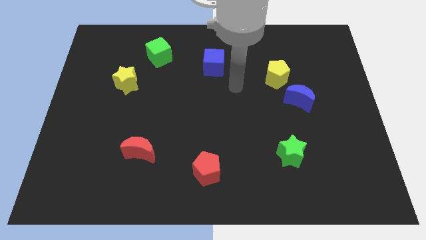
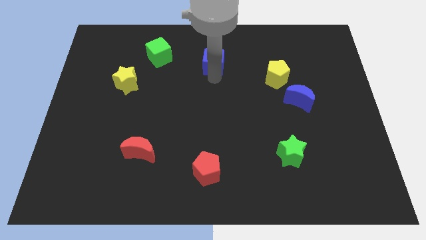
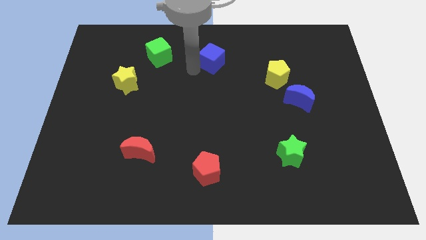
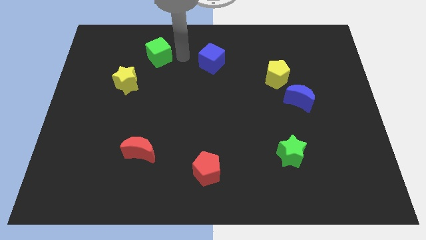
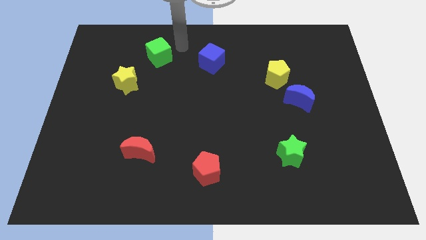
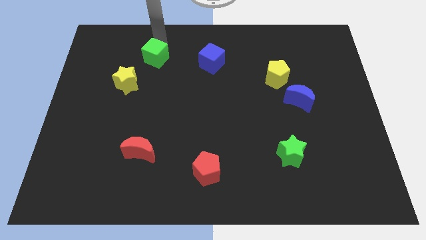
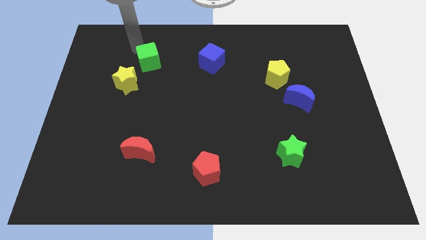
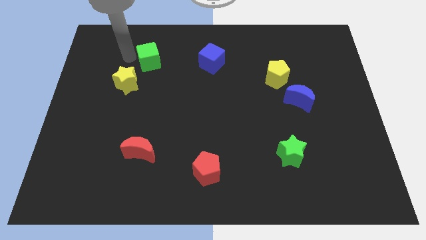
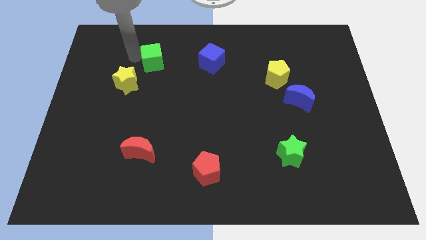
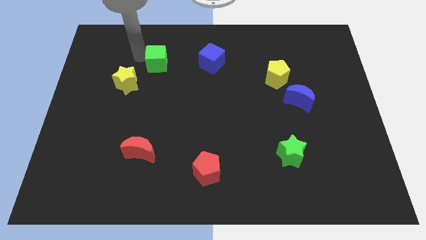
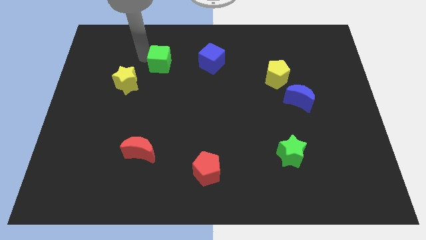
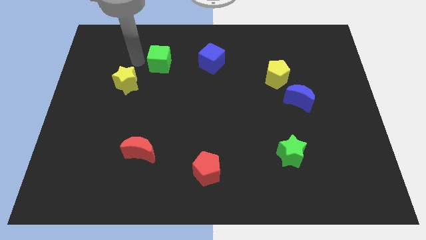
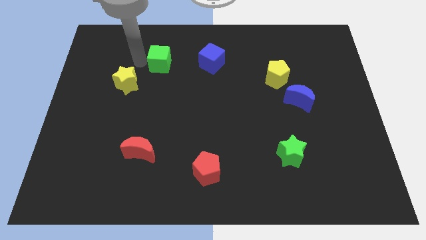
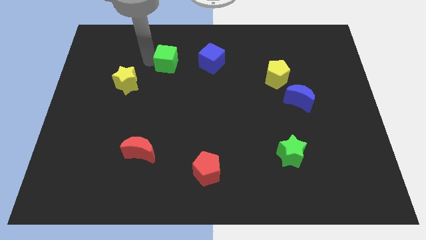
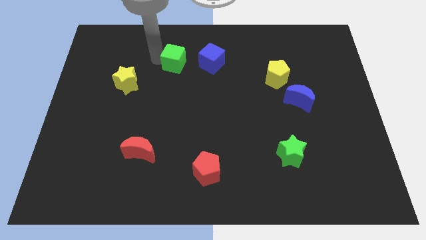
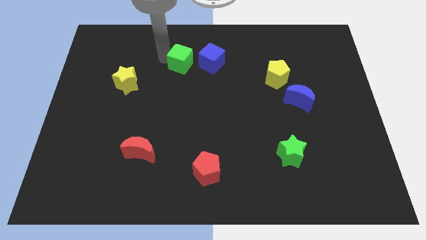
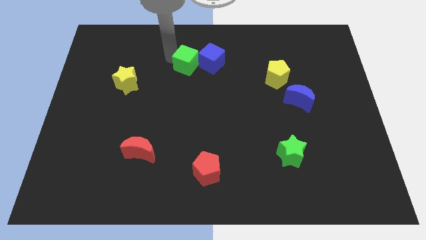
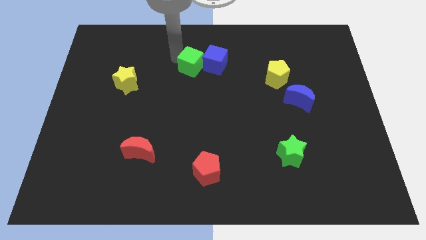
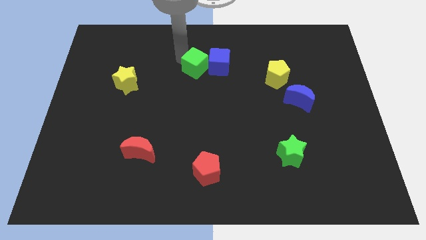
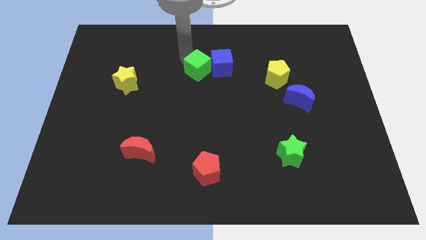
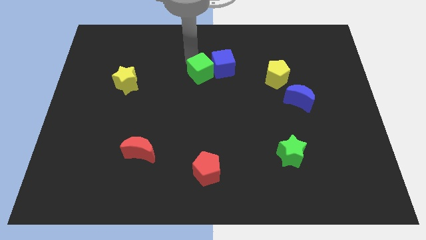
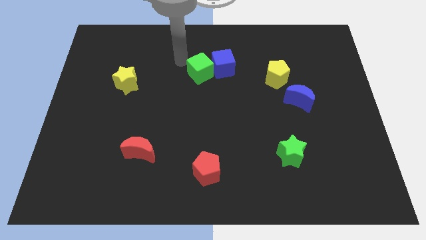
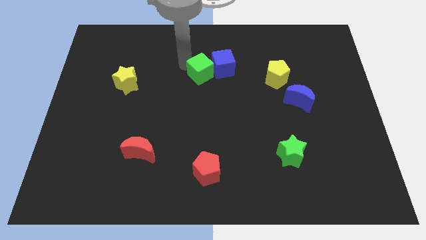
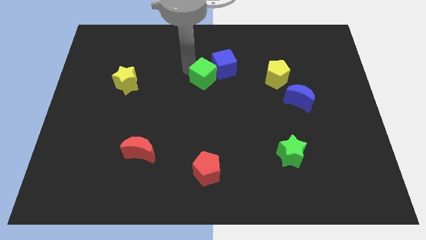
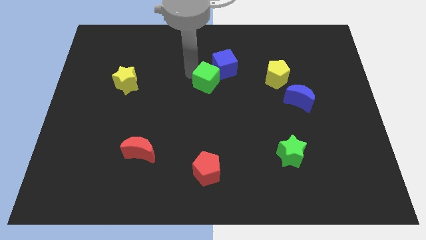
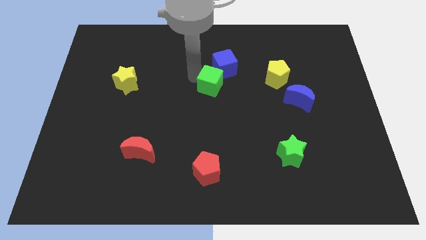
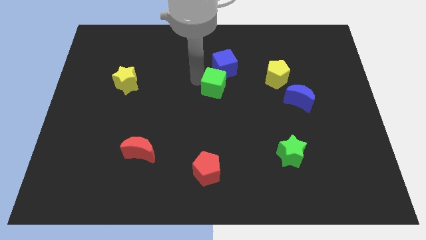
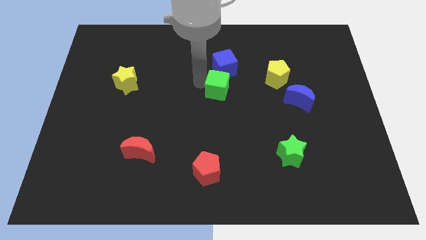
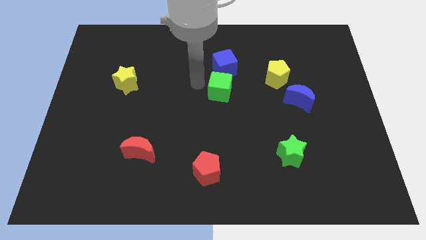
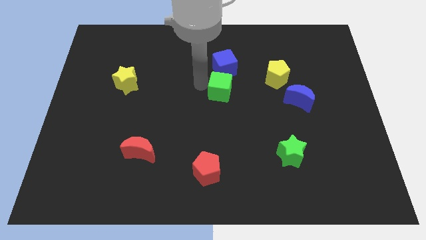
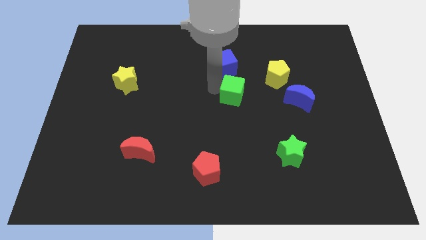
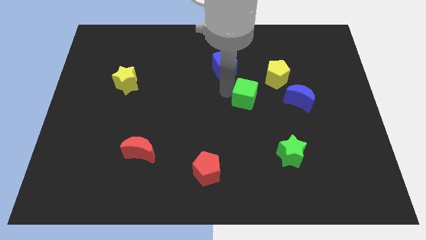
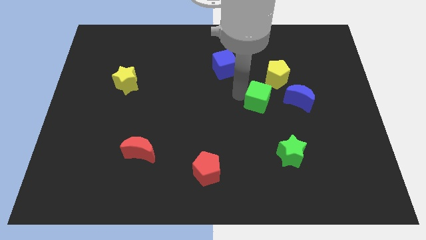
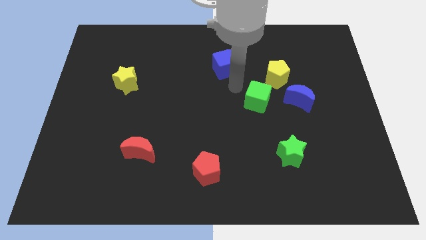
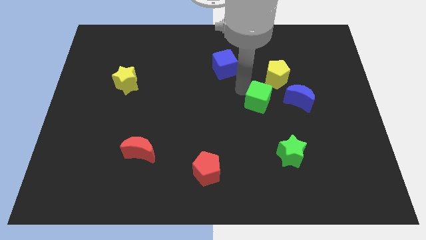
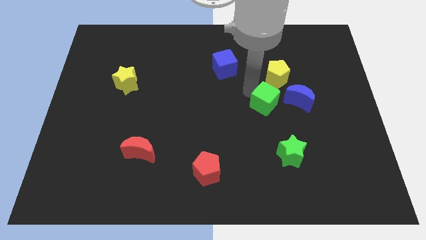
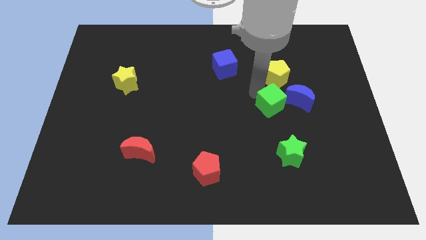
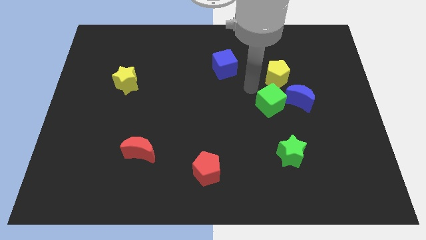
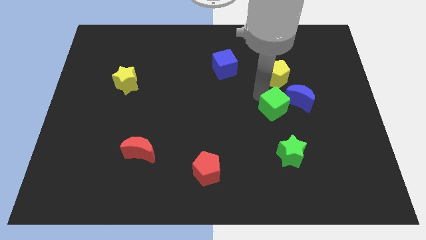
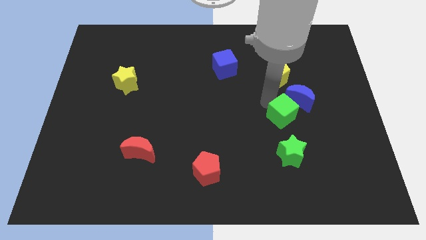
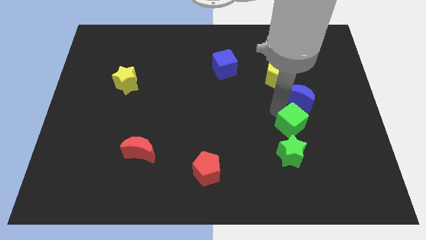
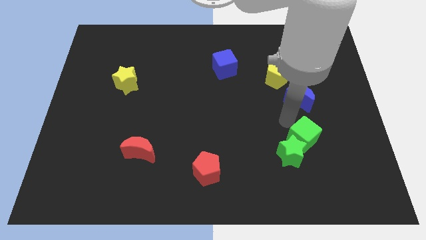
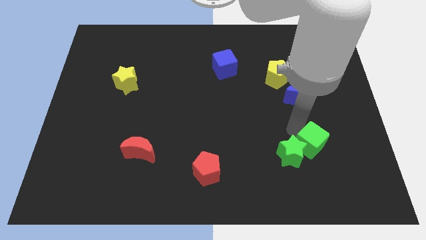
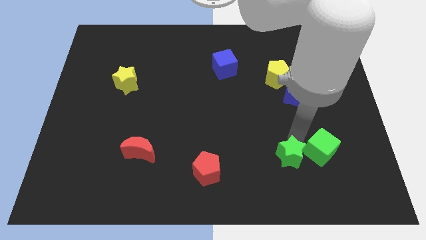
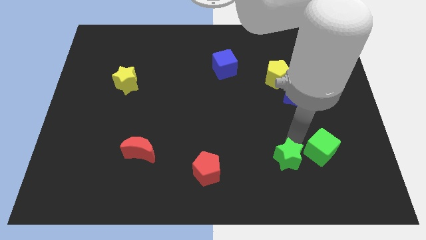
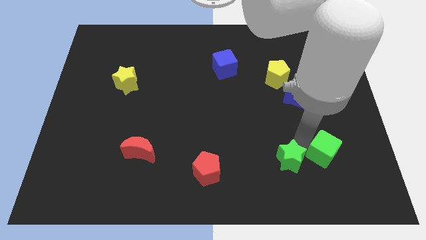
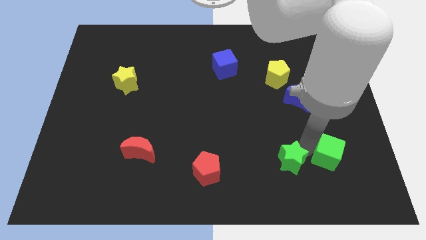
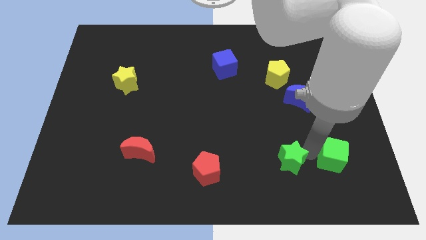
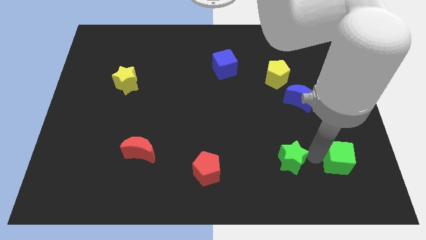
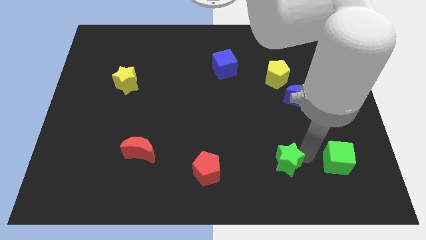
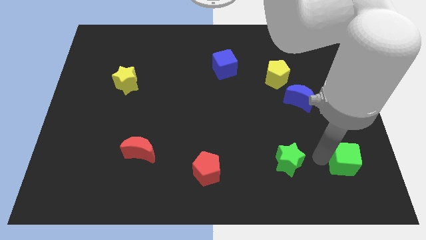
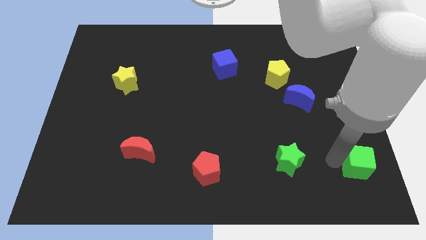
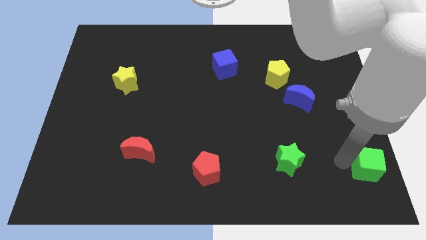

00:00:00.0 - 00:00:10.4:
push the green cube to the lower right corner

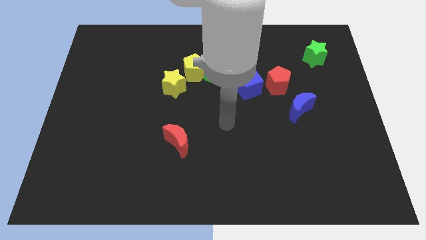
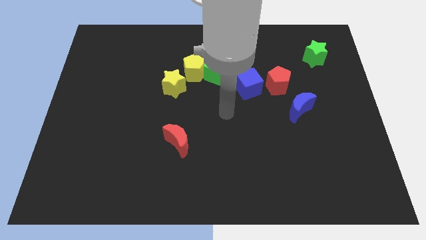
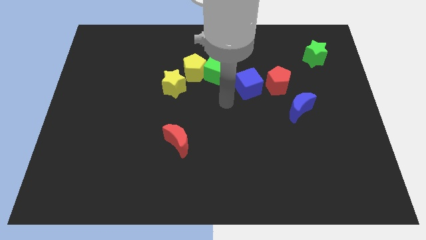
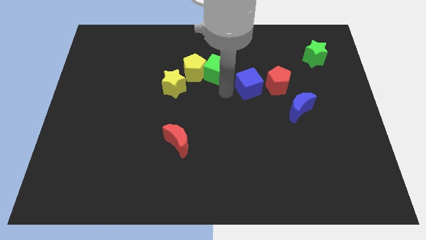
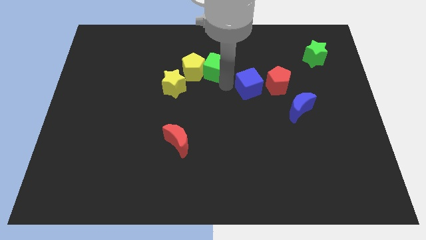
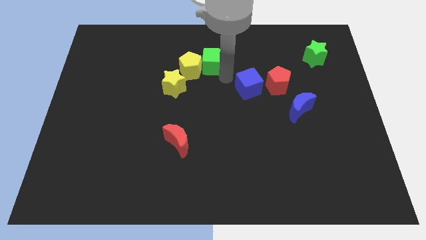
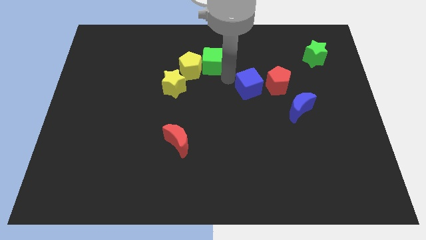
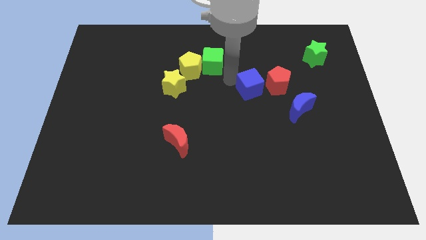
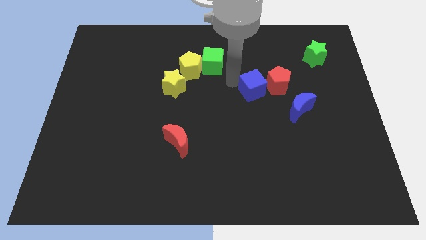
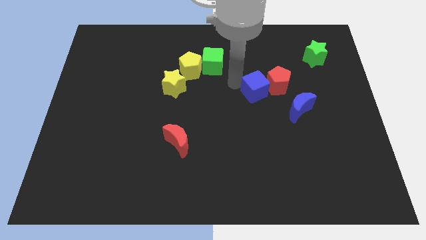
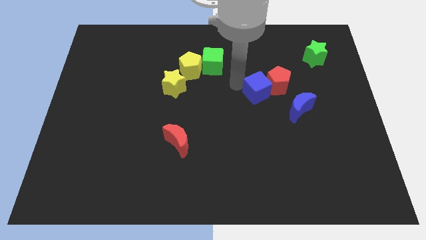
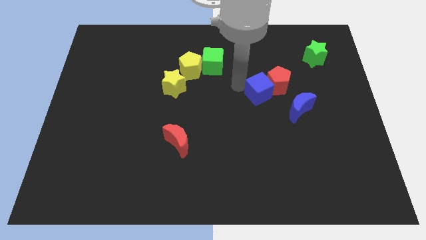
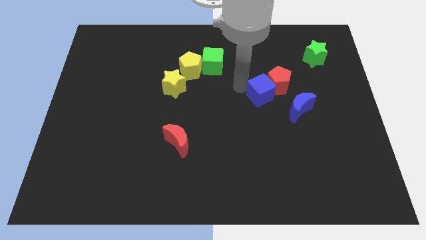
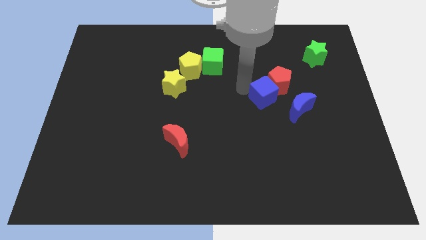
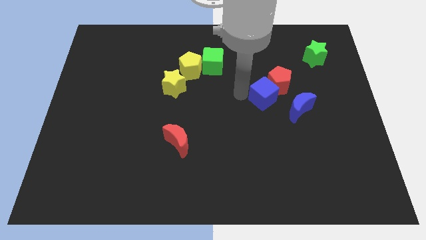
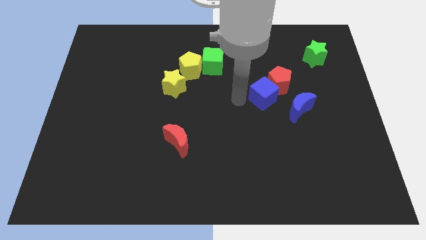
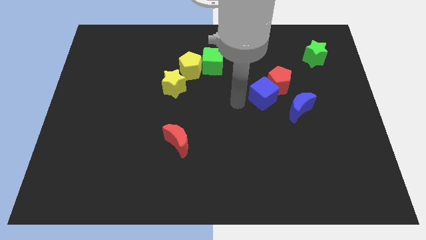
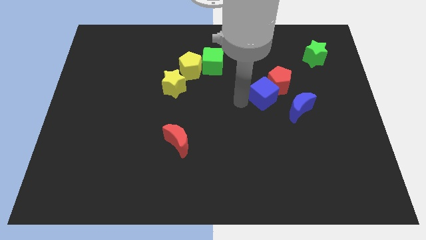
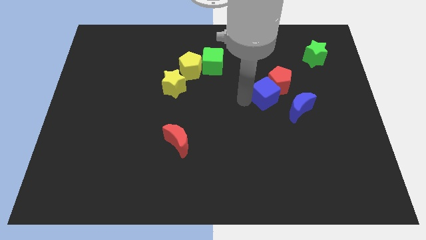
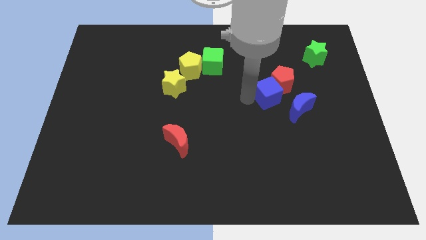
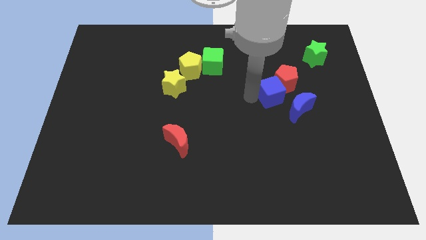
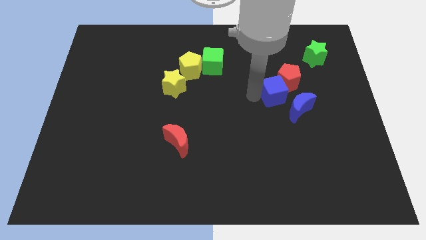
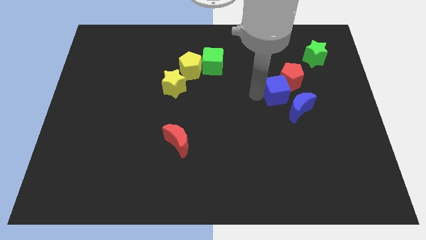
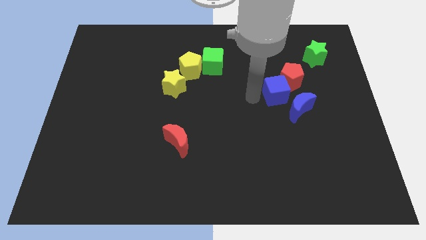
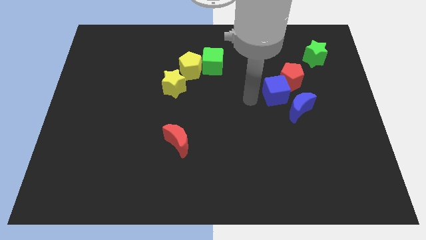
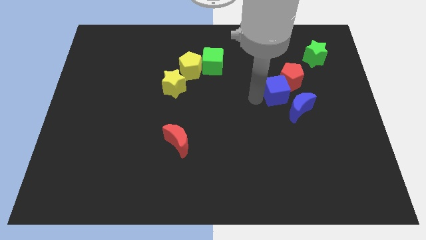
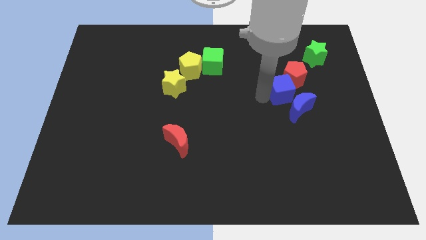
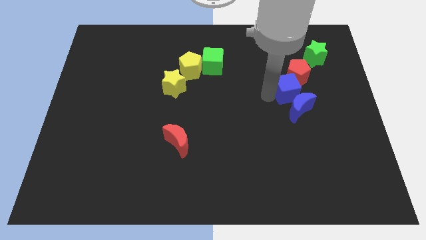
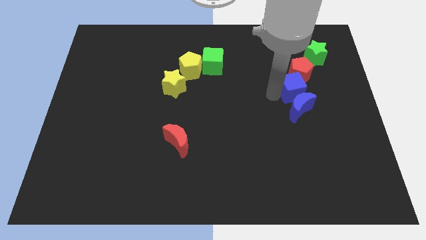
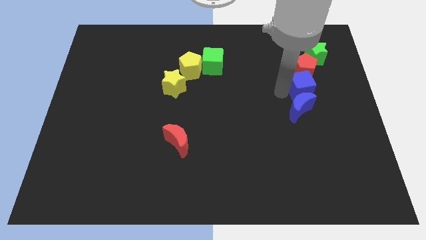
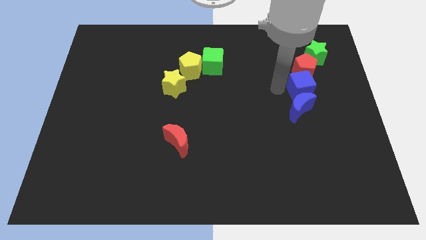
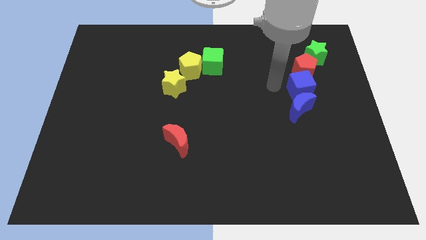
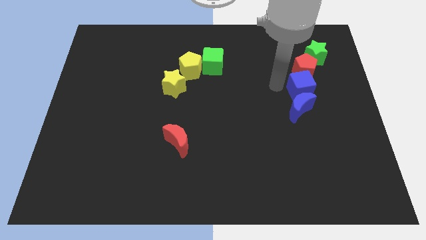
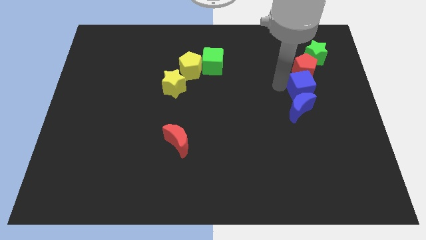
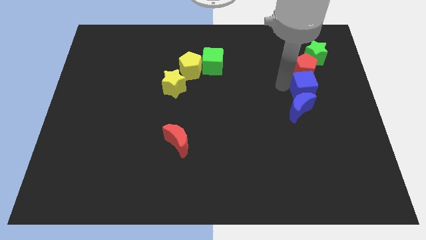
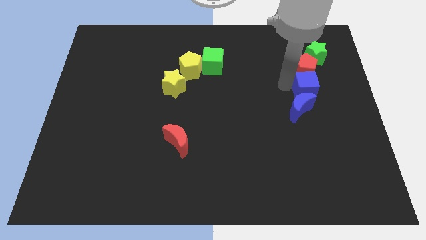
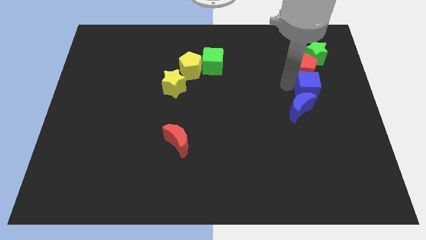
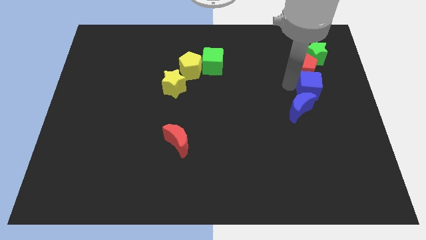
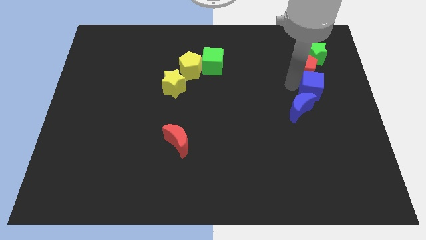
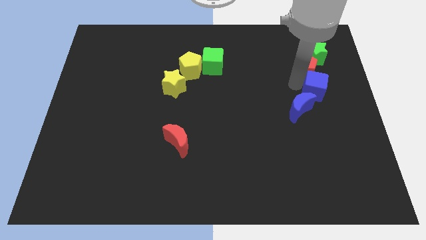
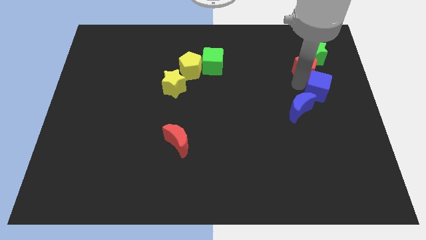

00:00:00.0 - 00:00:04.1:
push the blue cube to the center right
